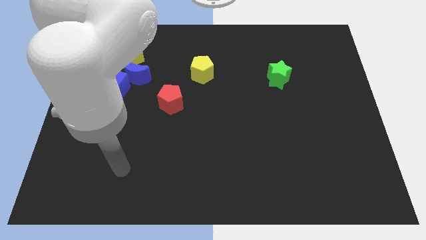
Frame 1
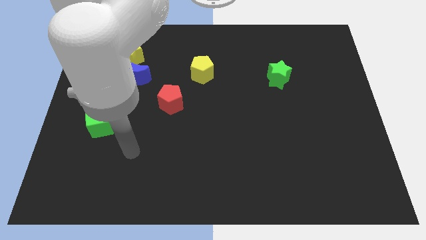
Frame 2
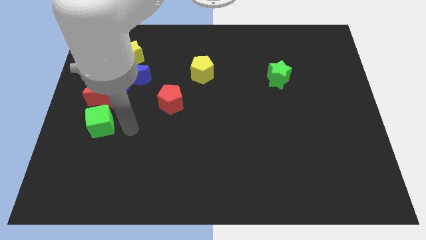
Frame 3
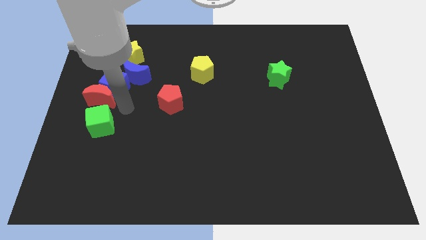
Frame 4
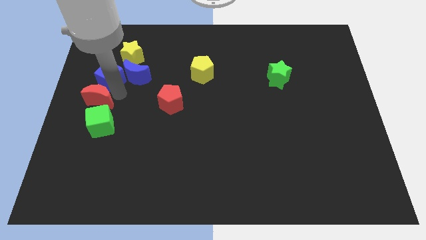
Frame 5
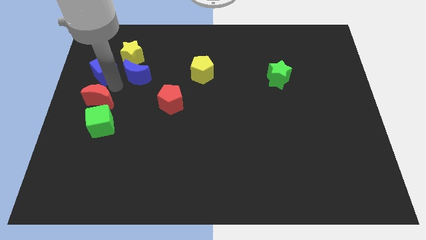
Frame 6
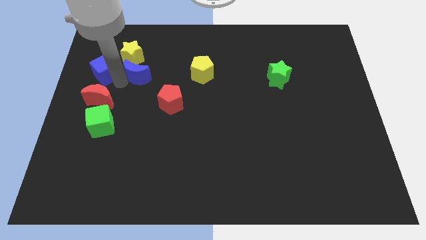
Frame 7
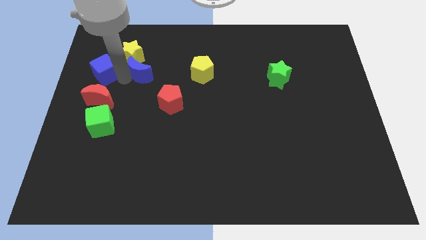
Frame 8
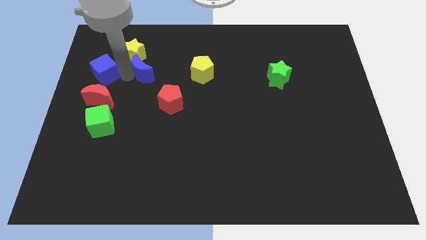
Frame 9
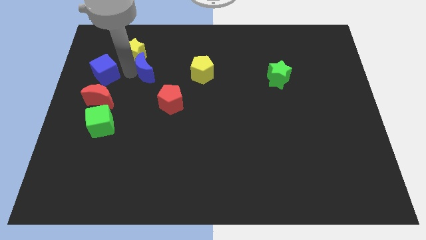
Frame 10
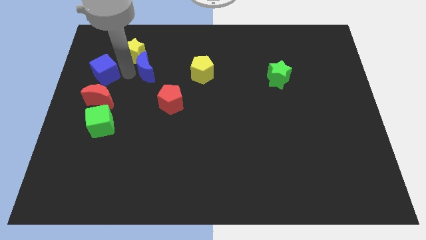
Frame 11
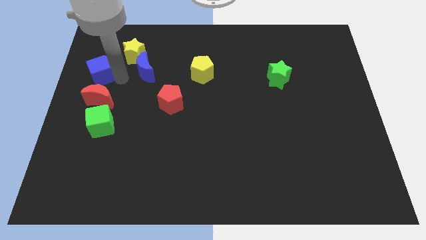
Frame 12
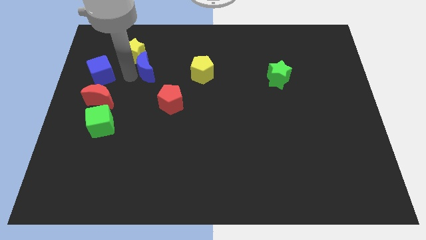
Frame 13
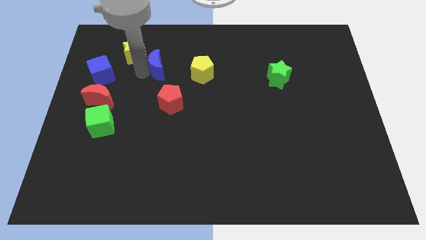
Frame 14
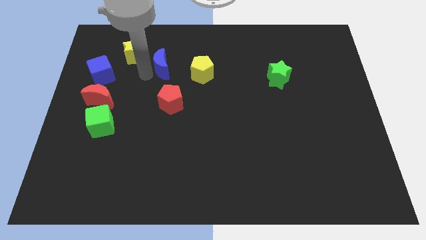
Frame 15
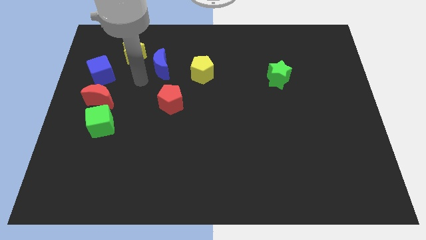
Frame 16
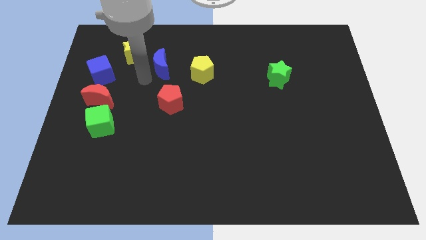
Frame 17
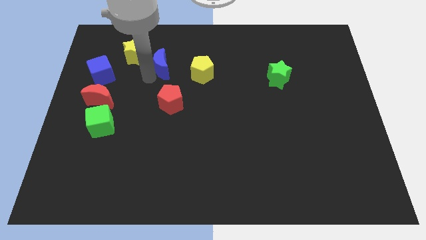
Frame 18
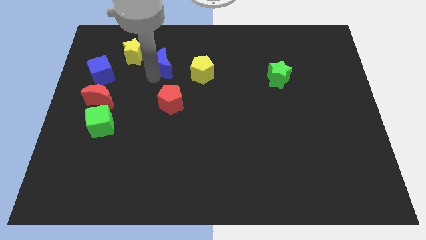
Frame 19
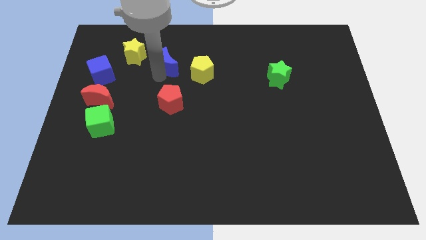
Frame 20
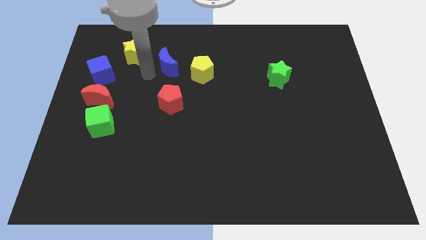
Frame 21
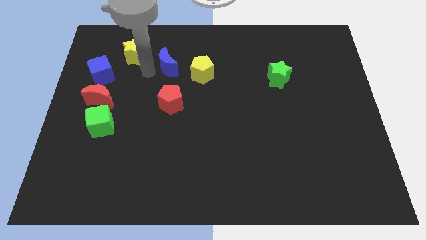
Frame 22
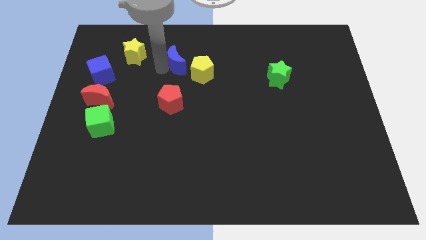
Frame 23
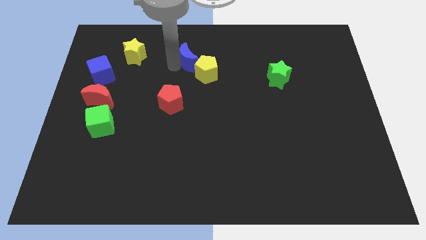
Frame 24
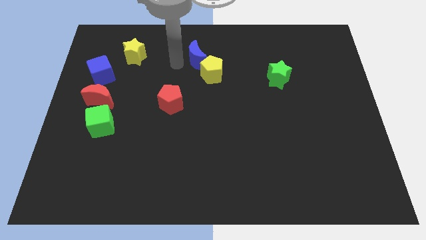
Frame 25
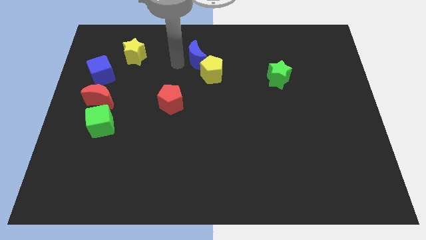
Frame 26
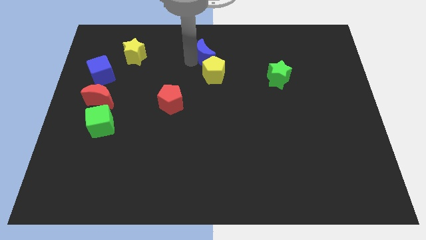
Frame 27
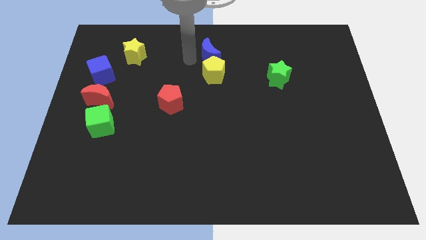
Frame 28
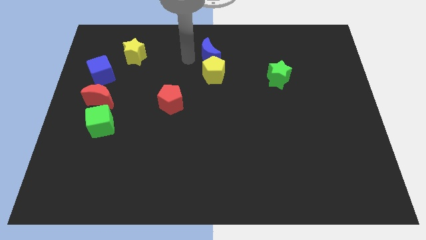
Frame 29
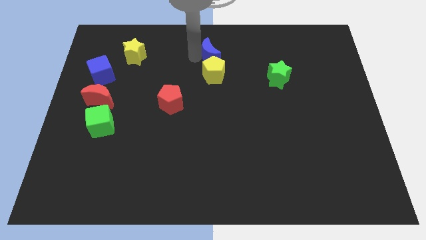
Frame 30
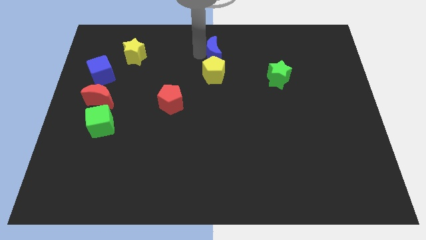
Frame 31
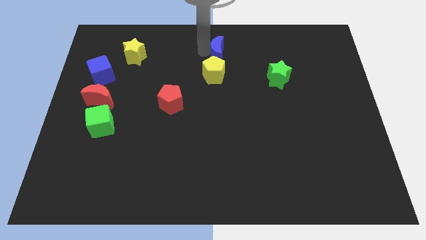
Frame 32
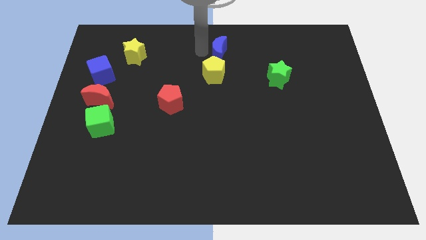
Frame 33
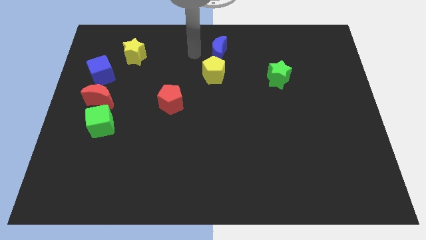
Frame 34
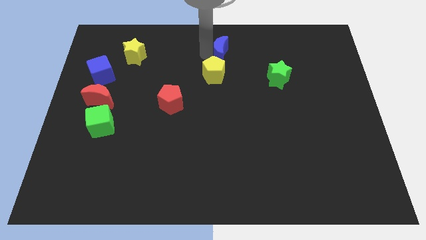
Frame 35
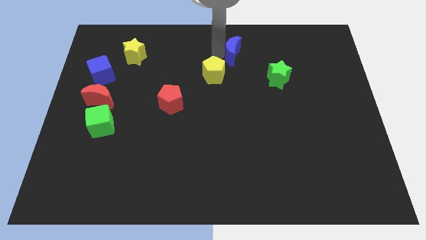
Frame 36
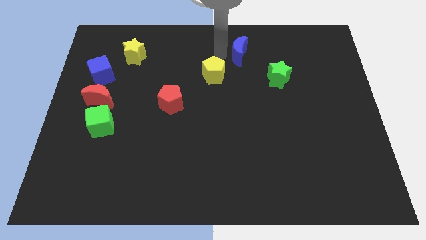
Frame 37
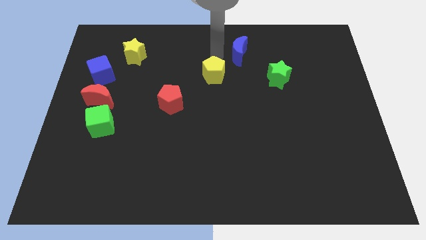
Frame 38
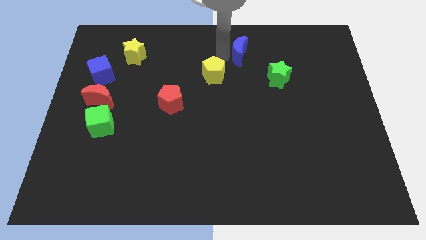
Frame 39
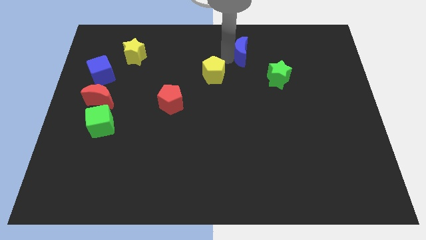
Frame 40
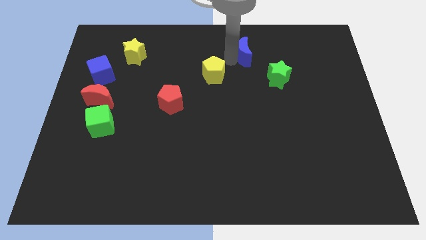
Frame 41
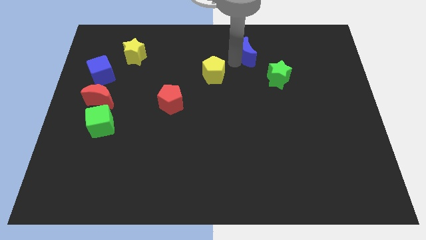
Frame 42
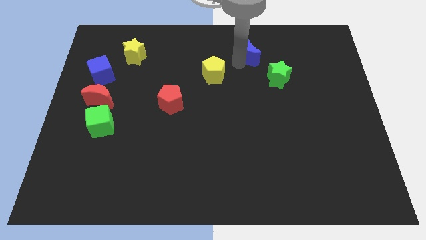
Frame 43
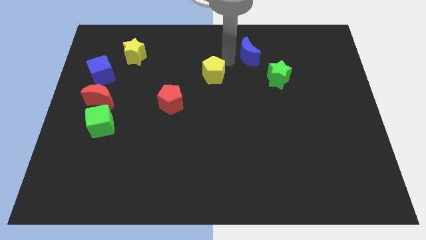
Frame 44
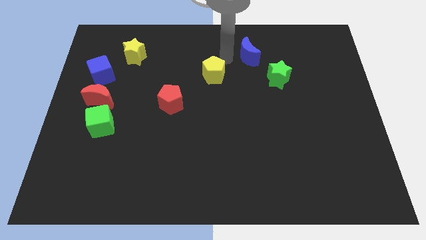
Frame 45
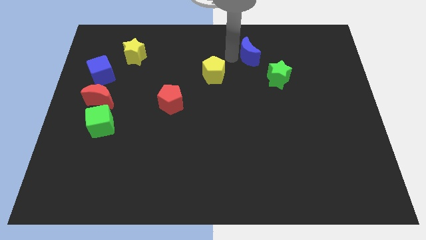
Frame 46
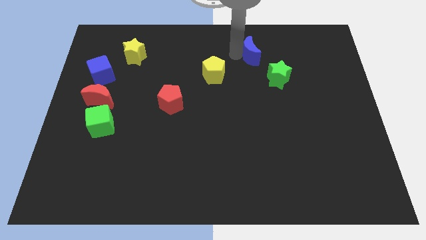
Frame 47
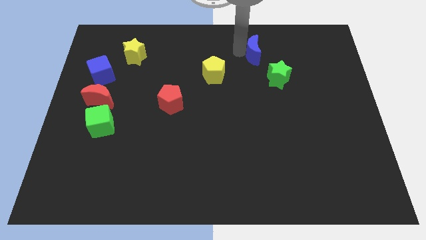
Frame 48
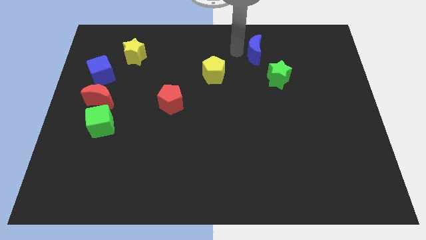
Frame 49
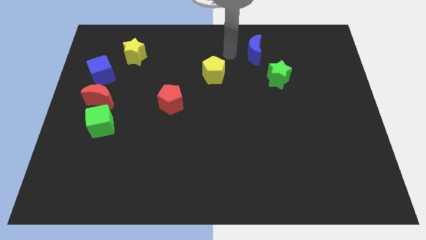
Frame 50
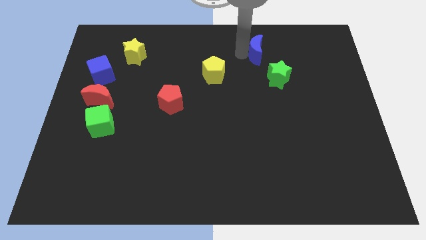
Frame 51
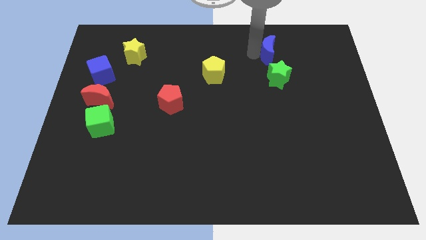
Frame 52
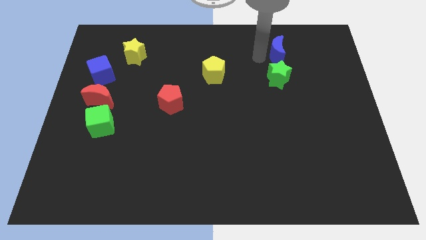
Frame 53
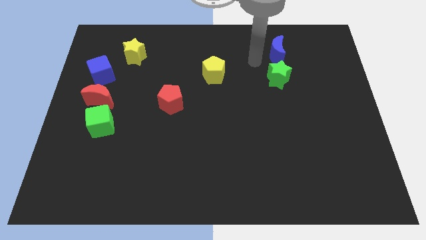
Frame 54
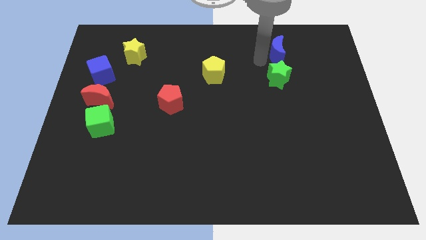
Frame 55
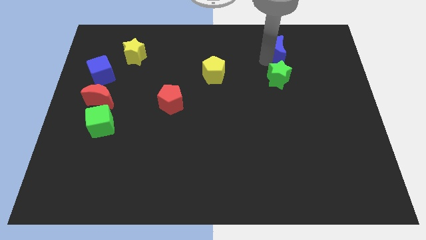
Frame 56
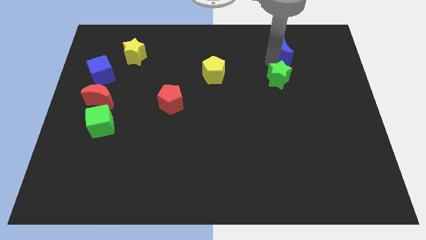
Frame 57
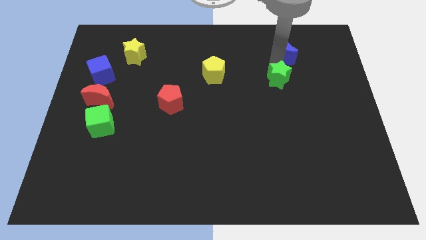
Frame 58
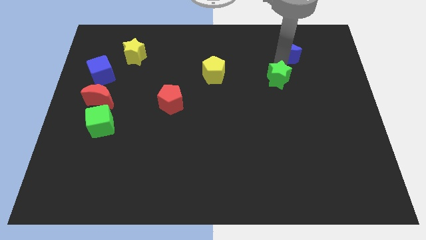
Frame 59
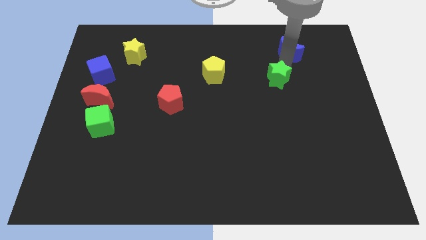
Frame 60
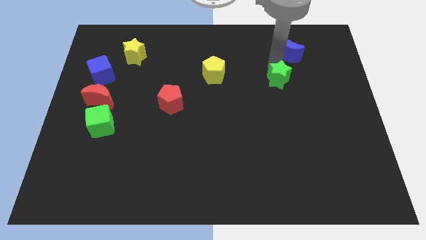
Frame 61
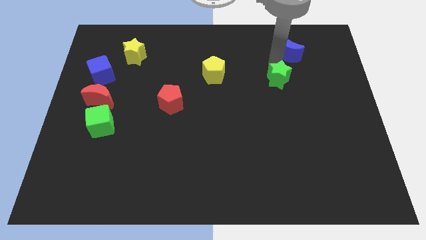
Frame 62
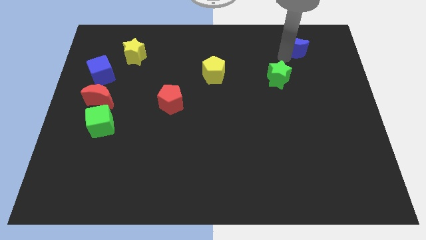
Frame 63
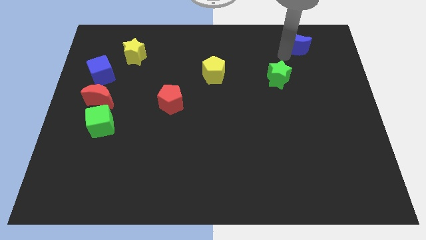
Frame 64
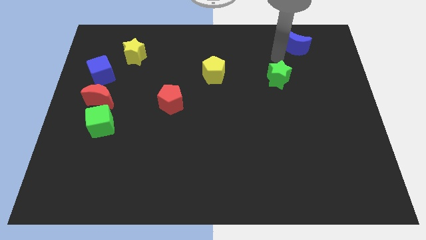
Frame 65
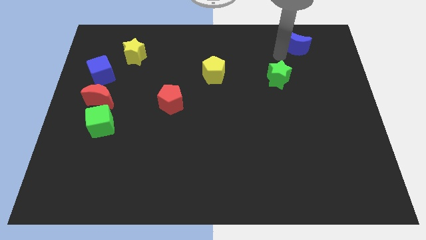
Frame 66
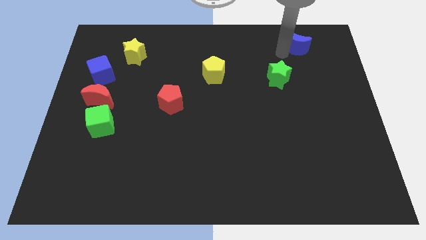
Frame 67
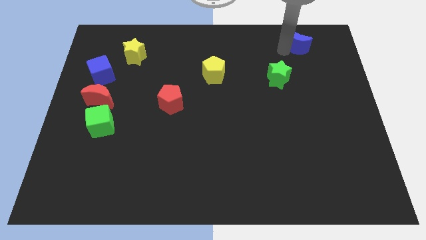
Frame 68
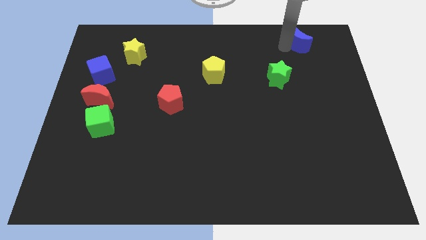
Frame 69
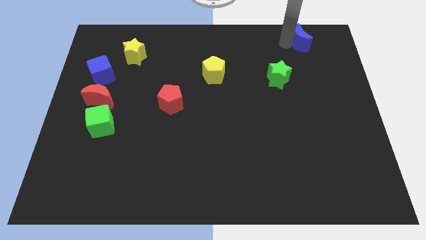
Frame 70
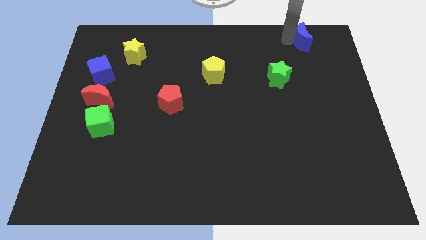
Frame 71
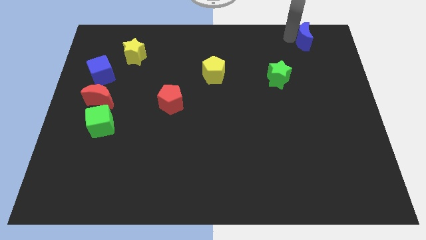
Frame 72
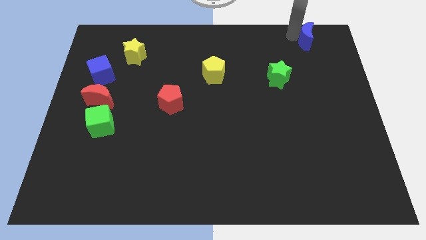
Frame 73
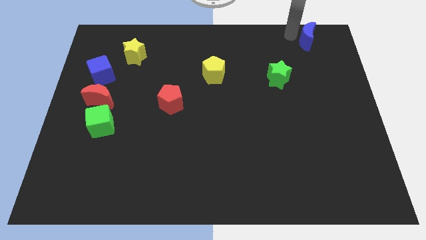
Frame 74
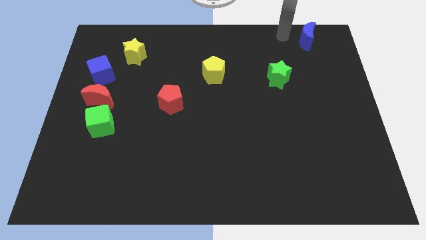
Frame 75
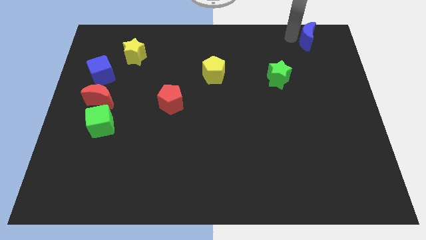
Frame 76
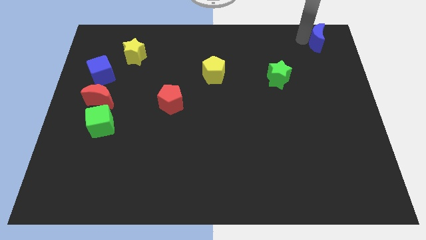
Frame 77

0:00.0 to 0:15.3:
move the blue moon to the upper right corner
